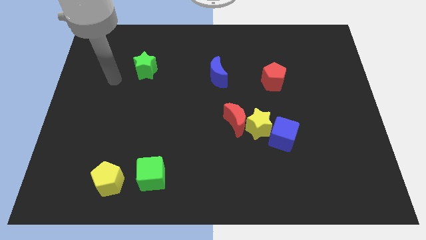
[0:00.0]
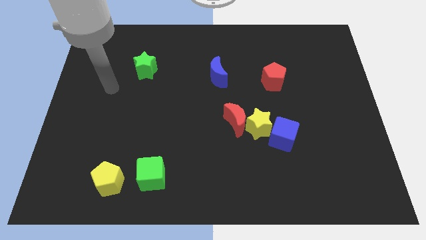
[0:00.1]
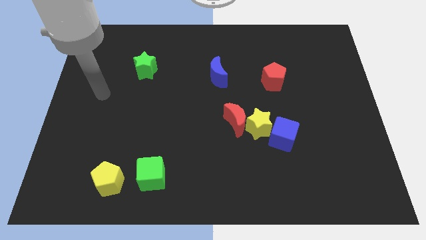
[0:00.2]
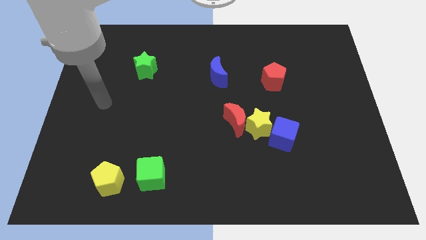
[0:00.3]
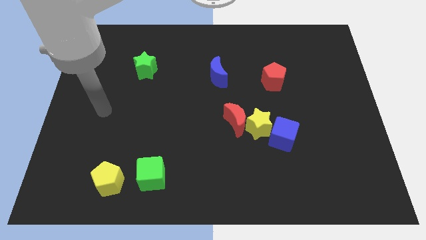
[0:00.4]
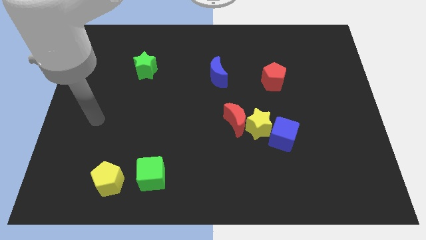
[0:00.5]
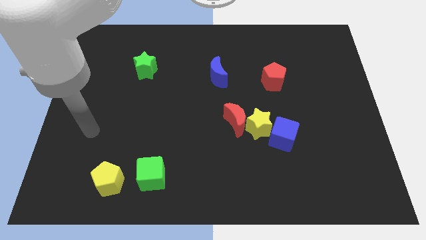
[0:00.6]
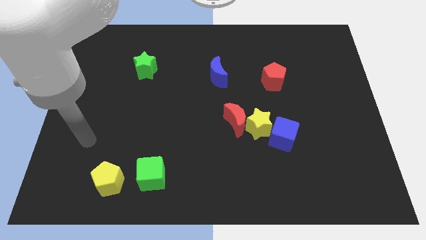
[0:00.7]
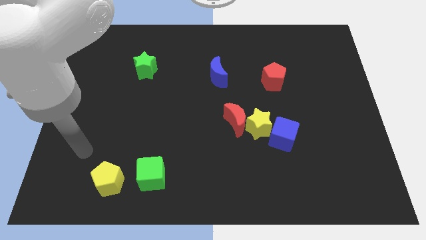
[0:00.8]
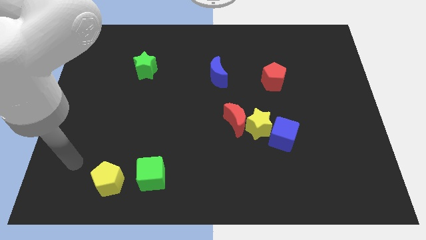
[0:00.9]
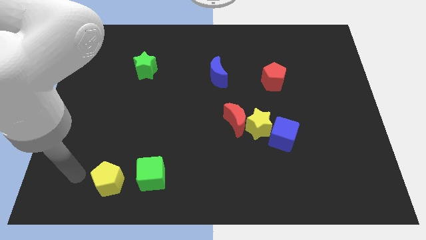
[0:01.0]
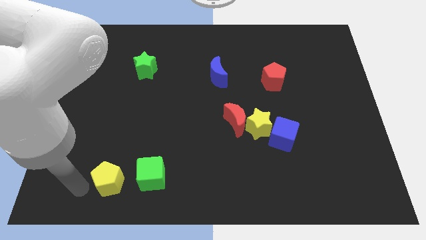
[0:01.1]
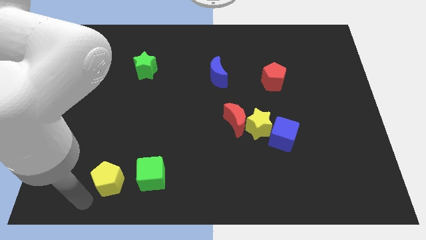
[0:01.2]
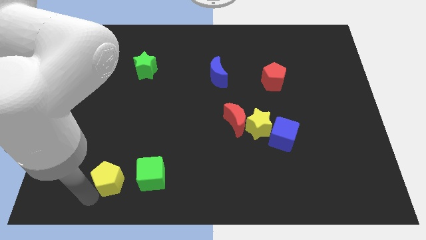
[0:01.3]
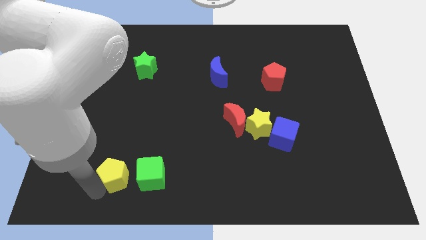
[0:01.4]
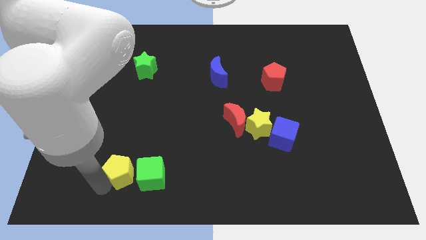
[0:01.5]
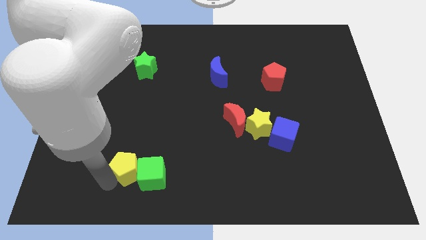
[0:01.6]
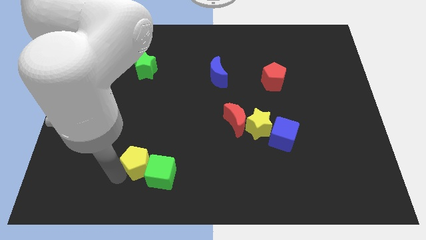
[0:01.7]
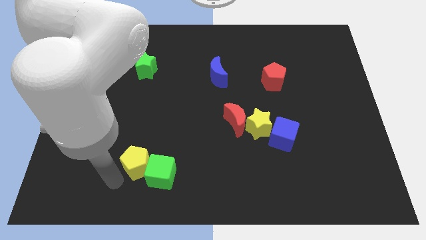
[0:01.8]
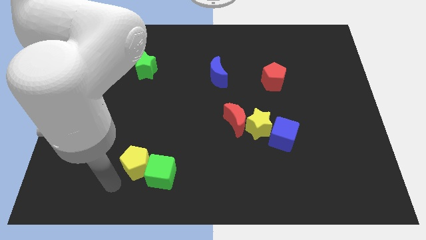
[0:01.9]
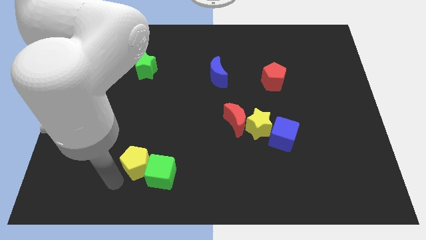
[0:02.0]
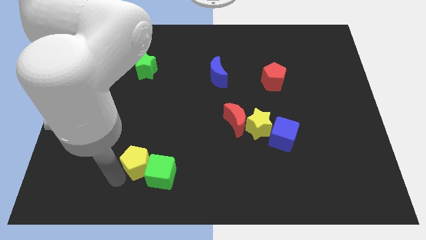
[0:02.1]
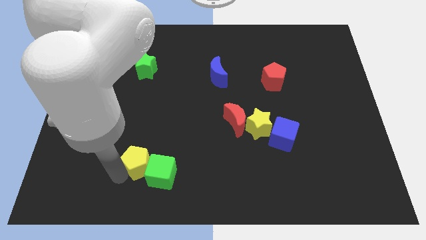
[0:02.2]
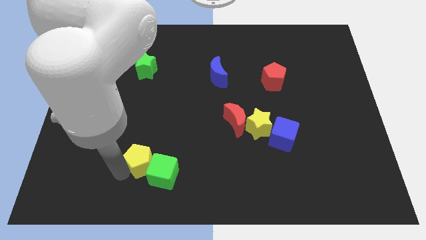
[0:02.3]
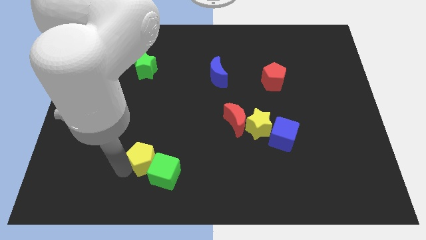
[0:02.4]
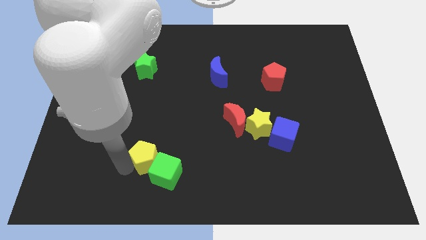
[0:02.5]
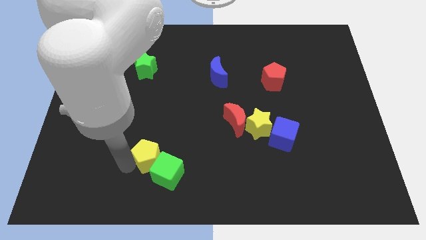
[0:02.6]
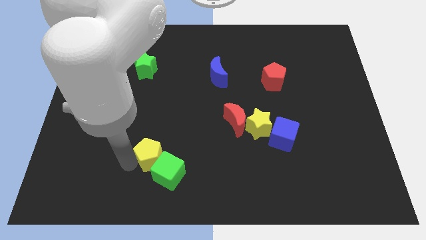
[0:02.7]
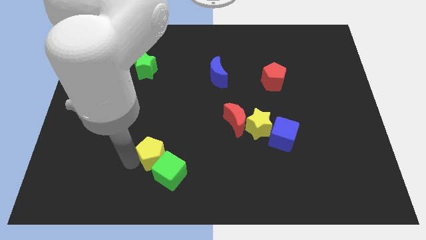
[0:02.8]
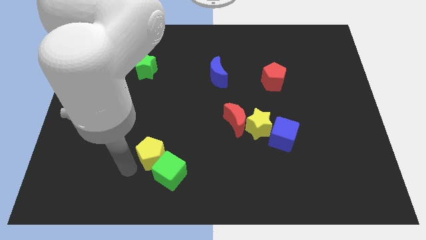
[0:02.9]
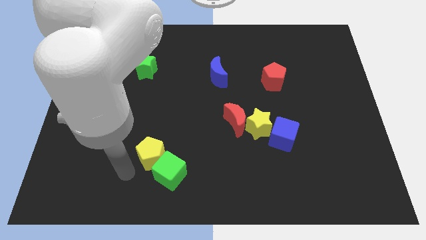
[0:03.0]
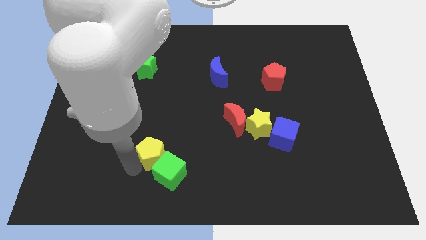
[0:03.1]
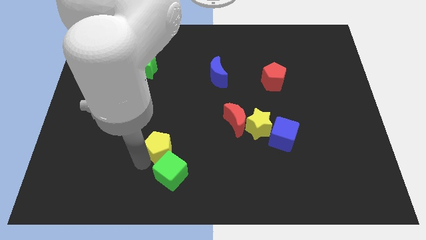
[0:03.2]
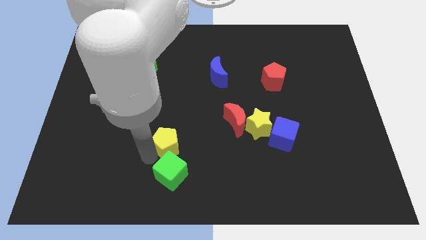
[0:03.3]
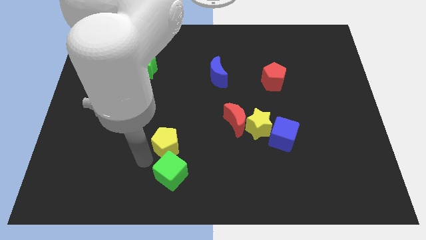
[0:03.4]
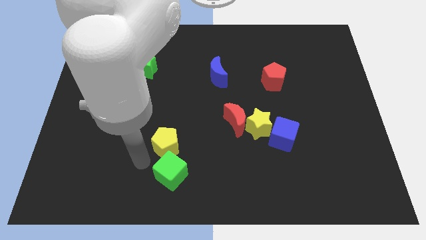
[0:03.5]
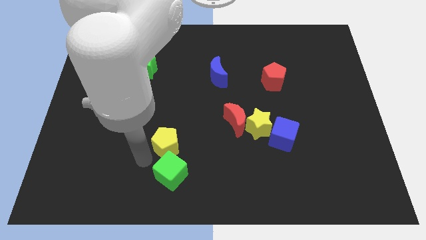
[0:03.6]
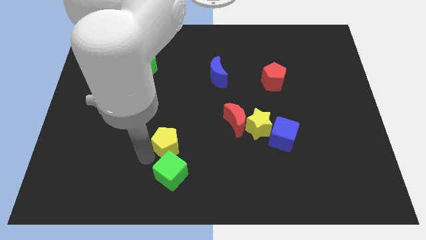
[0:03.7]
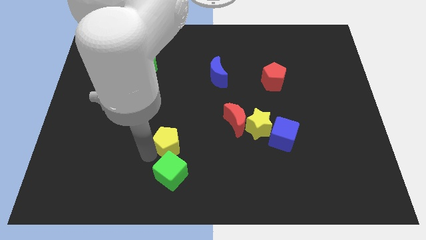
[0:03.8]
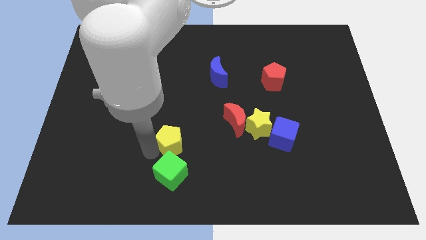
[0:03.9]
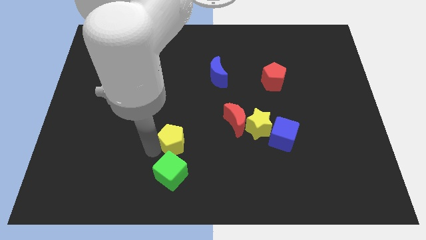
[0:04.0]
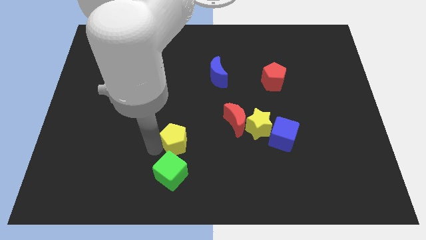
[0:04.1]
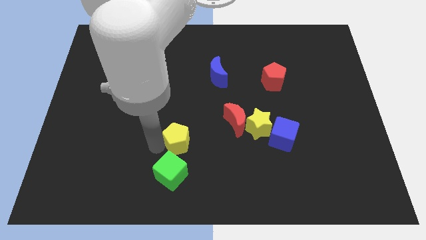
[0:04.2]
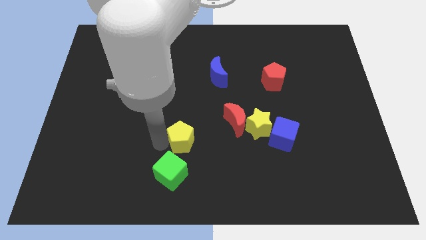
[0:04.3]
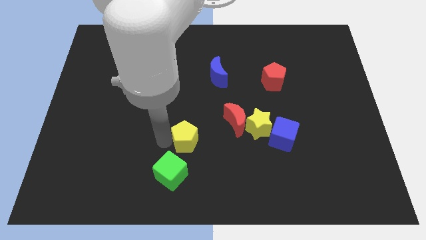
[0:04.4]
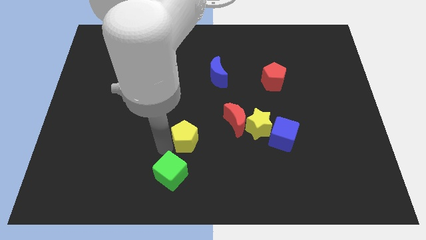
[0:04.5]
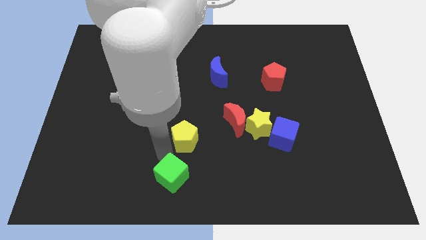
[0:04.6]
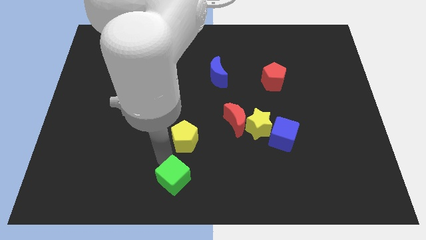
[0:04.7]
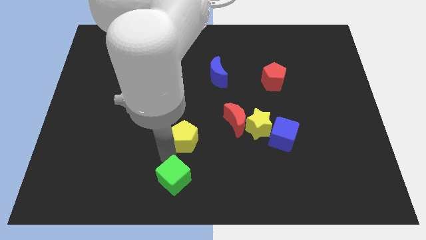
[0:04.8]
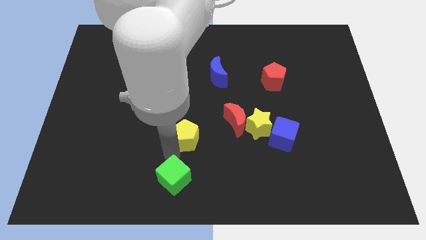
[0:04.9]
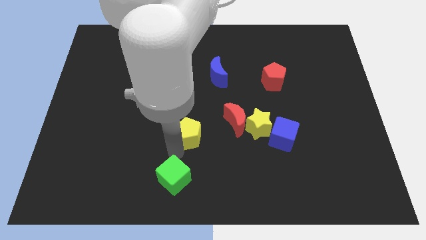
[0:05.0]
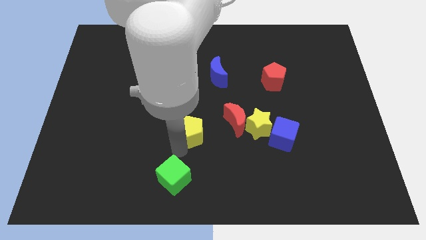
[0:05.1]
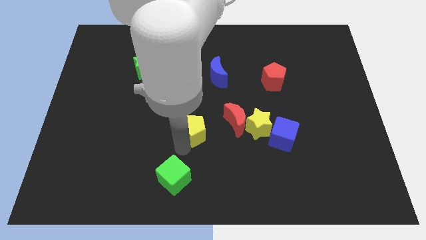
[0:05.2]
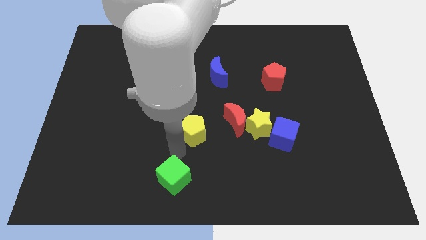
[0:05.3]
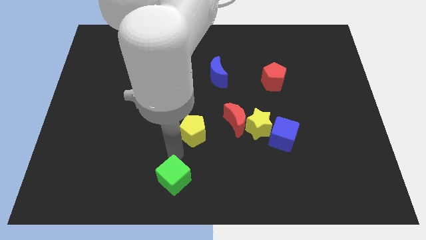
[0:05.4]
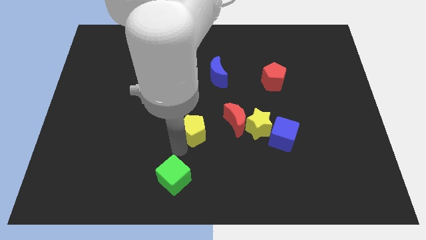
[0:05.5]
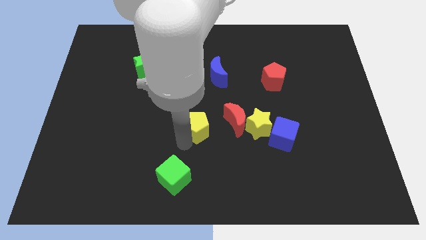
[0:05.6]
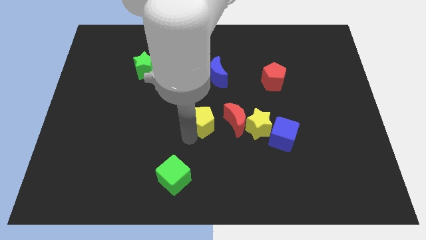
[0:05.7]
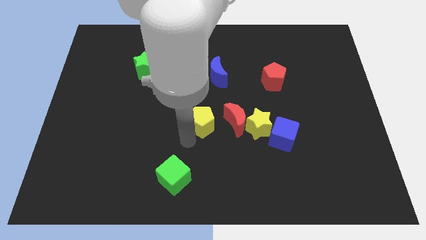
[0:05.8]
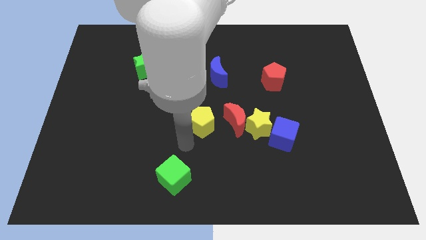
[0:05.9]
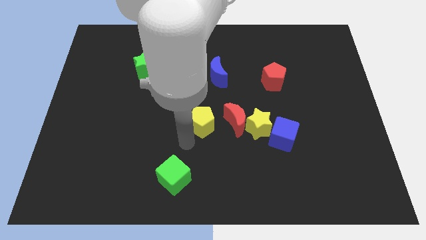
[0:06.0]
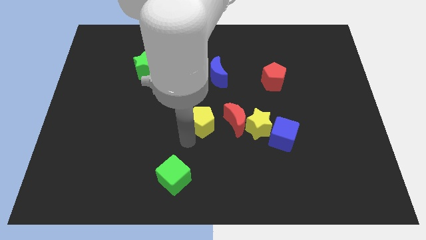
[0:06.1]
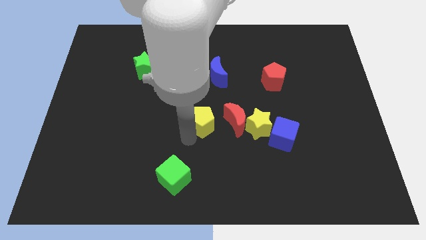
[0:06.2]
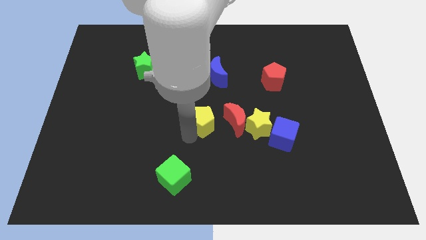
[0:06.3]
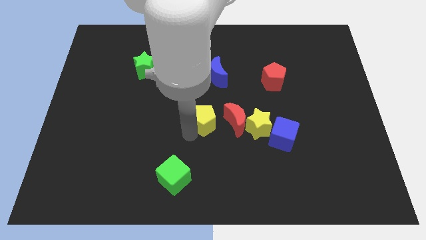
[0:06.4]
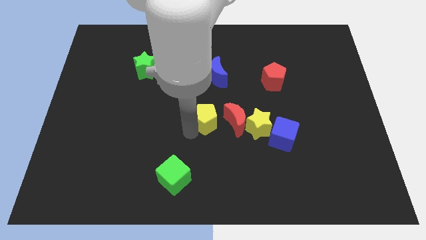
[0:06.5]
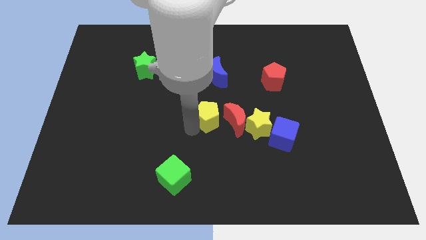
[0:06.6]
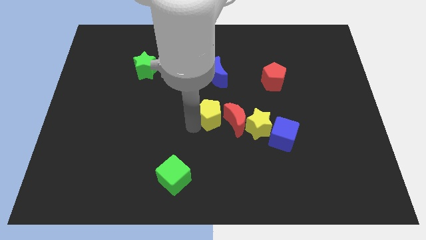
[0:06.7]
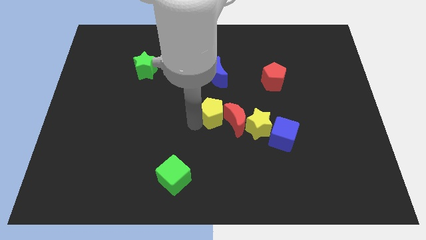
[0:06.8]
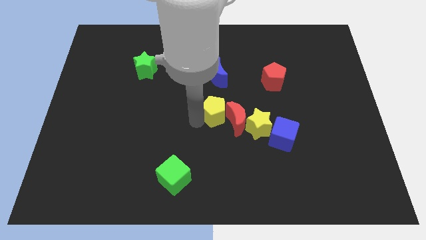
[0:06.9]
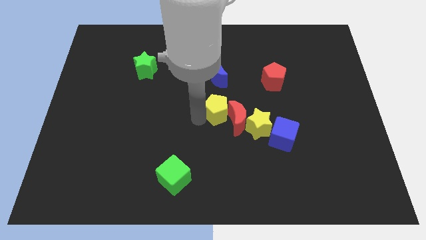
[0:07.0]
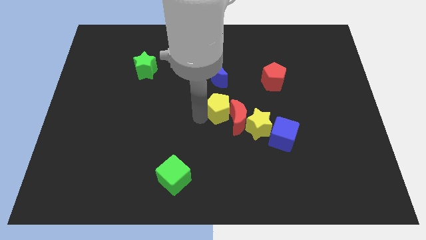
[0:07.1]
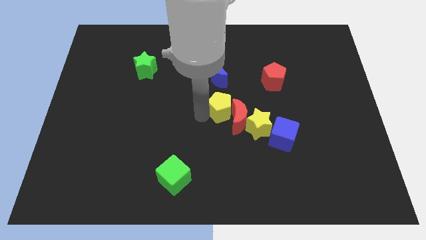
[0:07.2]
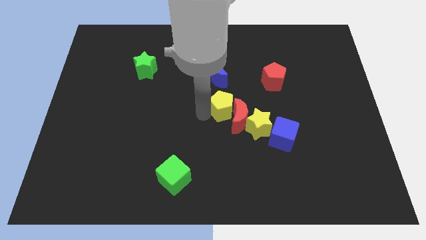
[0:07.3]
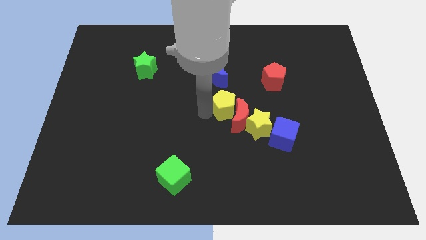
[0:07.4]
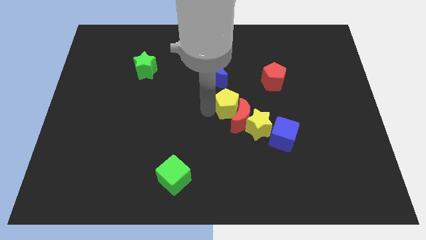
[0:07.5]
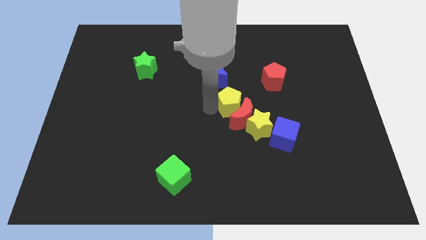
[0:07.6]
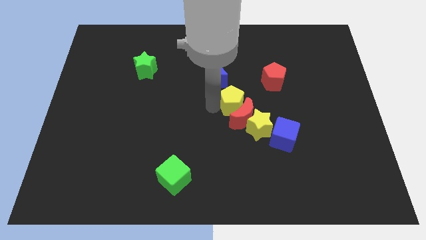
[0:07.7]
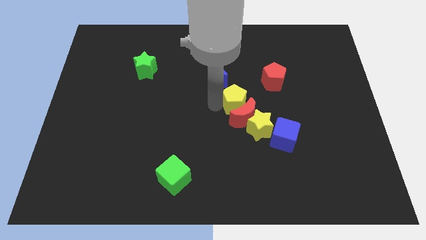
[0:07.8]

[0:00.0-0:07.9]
move the yellow pentagon to the bottom left of the red pentagon
